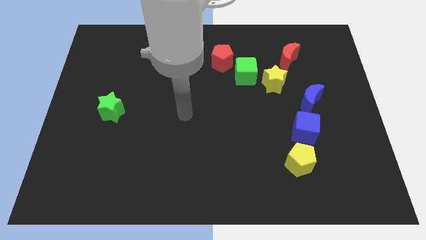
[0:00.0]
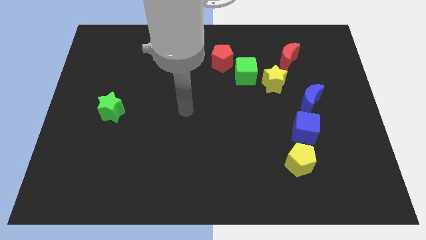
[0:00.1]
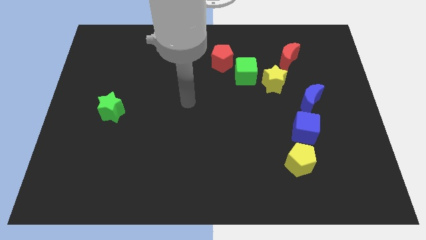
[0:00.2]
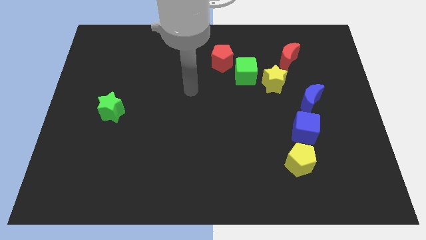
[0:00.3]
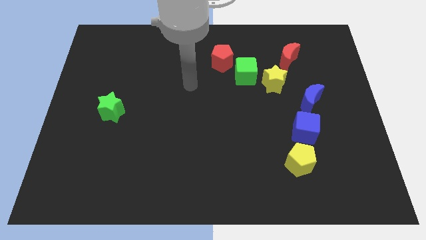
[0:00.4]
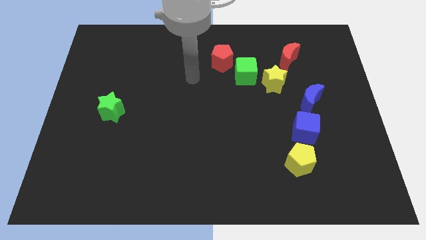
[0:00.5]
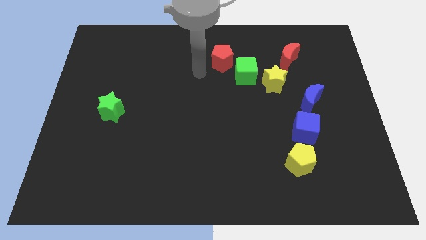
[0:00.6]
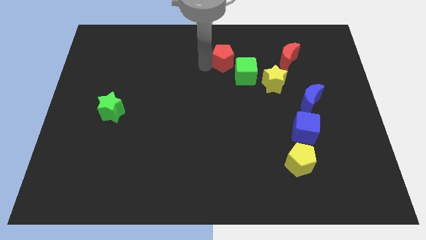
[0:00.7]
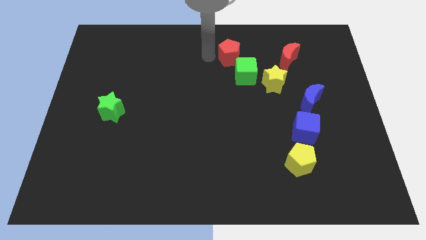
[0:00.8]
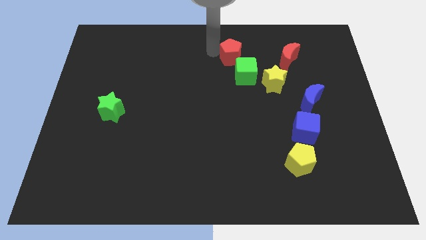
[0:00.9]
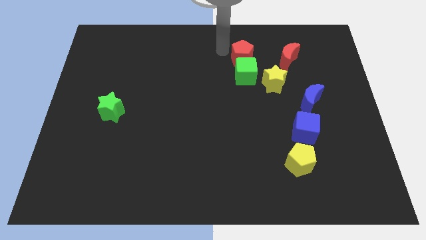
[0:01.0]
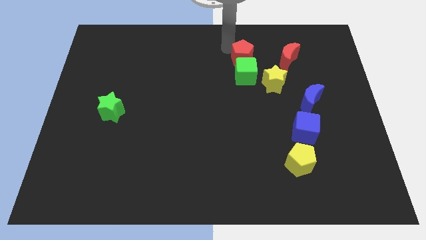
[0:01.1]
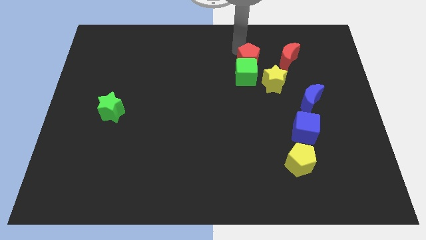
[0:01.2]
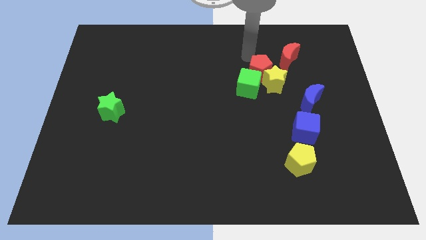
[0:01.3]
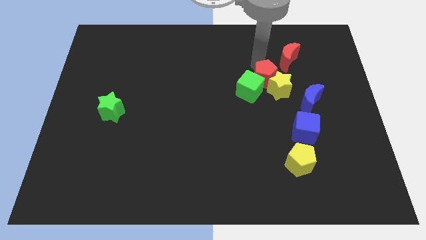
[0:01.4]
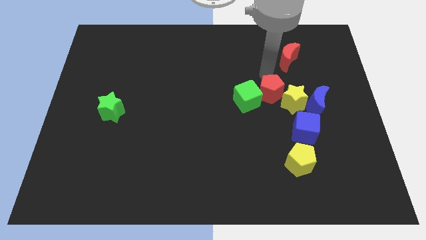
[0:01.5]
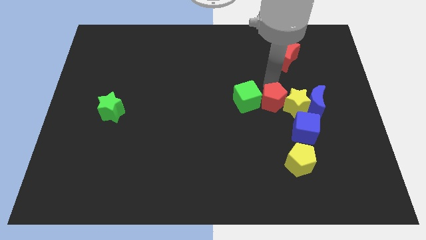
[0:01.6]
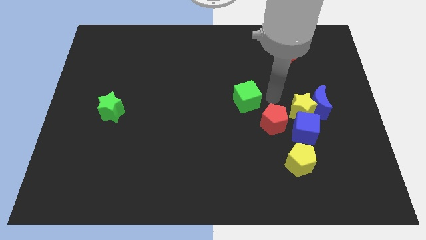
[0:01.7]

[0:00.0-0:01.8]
move the green cube away from the yellow star and red pentagon

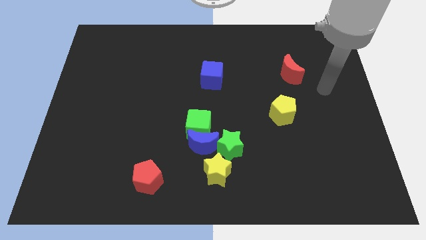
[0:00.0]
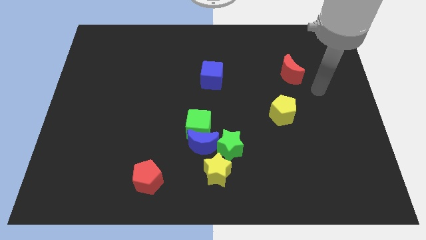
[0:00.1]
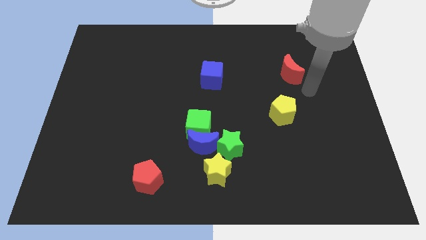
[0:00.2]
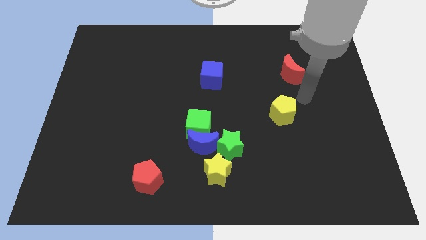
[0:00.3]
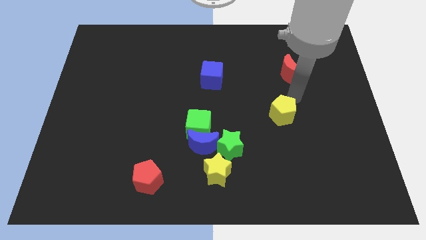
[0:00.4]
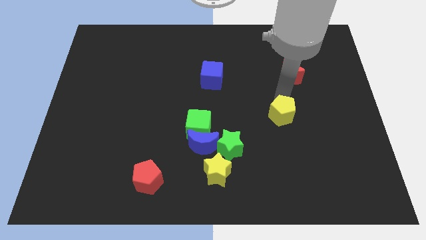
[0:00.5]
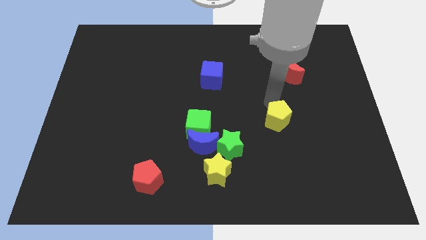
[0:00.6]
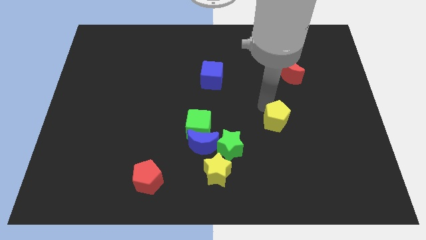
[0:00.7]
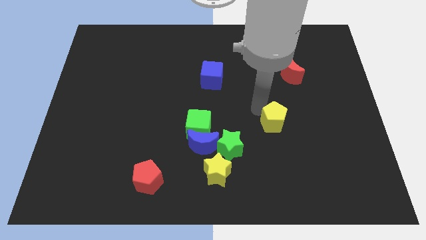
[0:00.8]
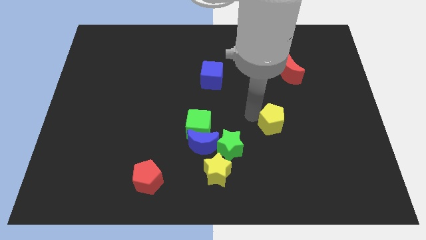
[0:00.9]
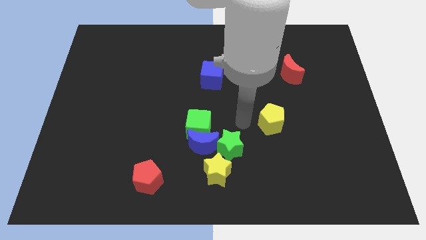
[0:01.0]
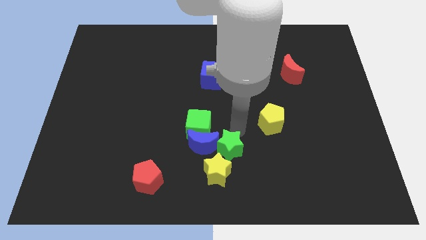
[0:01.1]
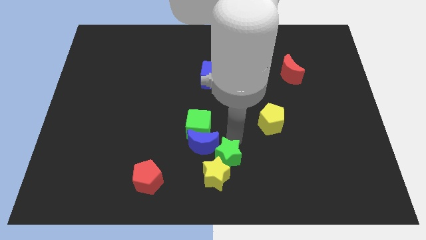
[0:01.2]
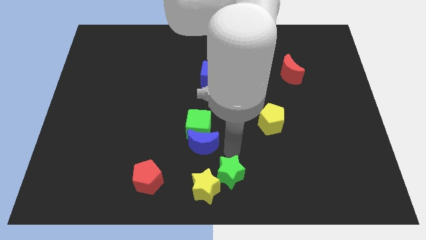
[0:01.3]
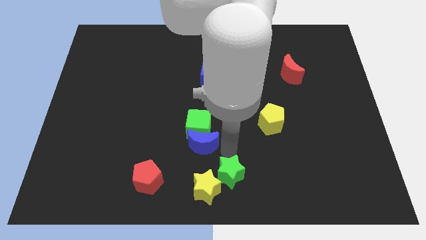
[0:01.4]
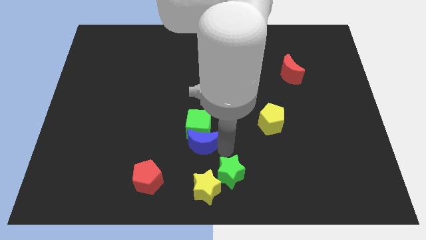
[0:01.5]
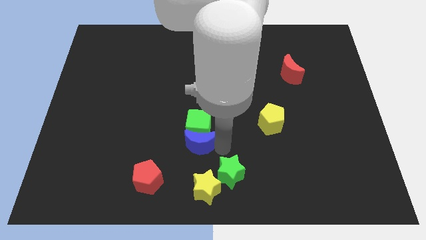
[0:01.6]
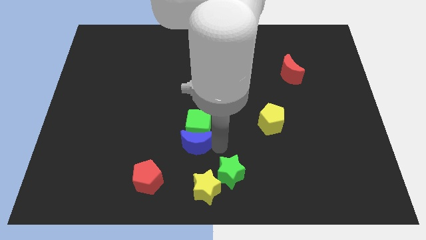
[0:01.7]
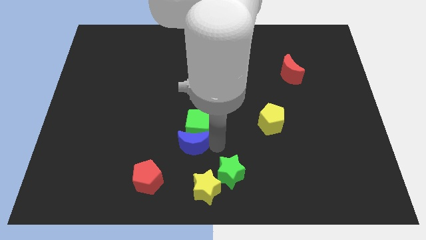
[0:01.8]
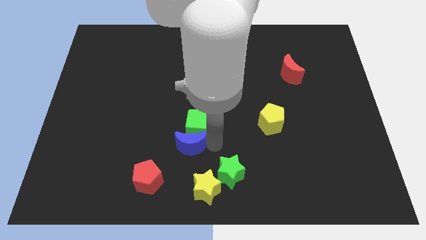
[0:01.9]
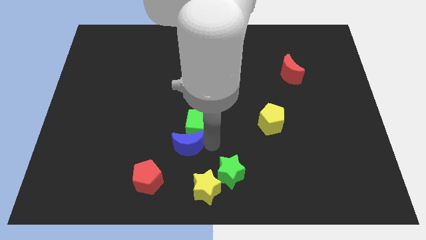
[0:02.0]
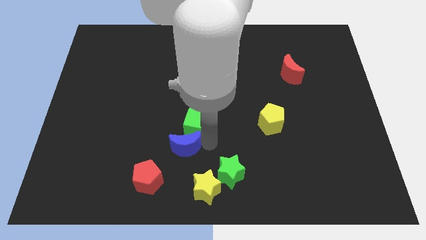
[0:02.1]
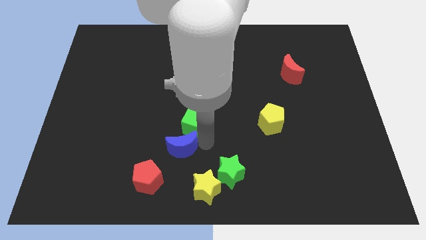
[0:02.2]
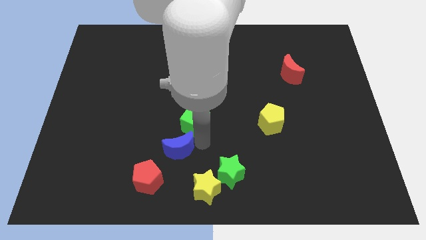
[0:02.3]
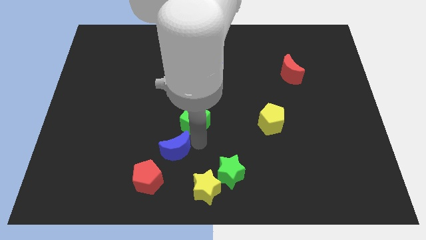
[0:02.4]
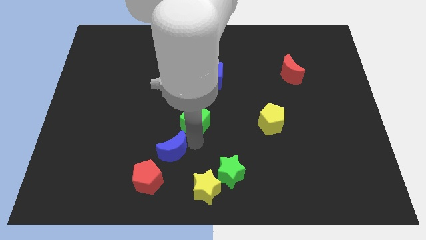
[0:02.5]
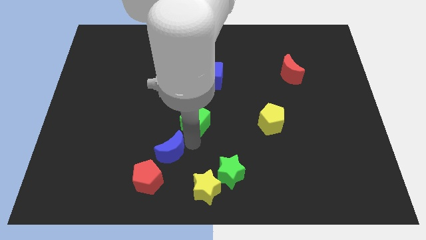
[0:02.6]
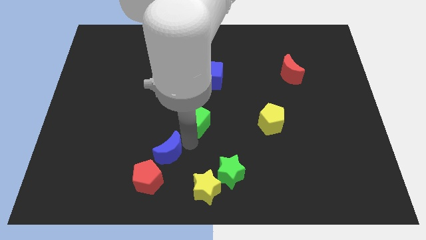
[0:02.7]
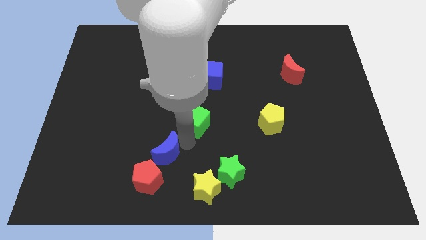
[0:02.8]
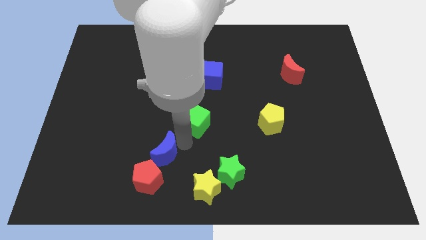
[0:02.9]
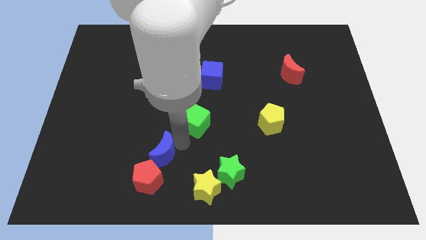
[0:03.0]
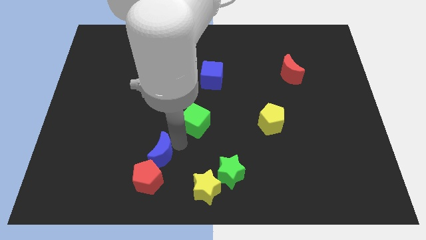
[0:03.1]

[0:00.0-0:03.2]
move the blue moon away from the green cube, green star, and yellow star

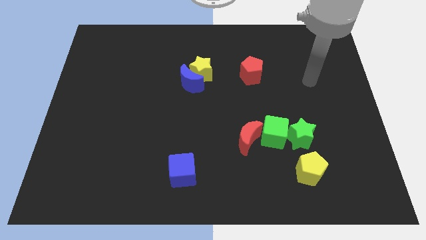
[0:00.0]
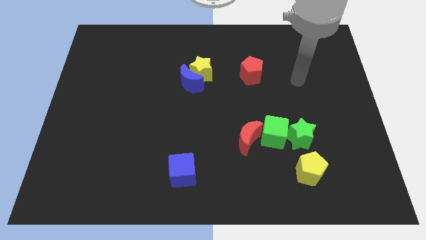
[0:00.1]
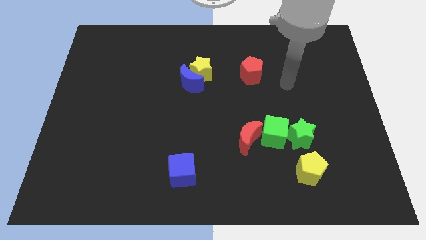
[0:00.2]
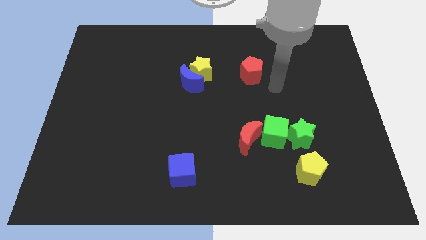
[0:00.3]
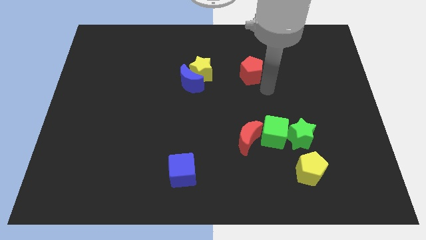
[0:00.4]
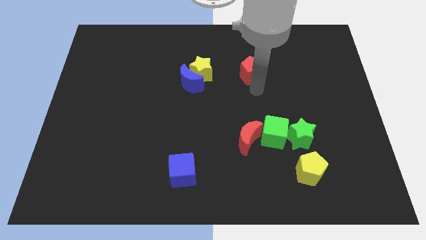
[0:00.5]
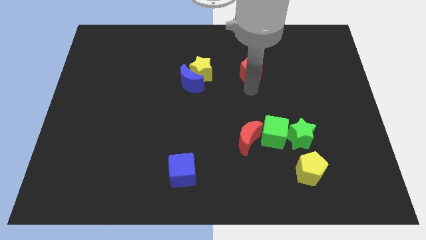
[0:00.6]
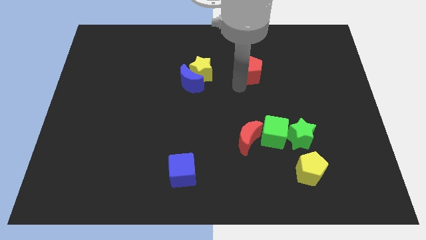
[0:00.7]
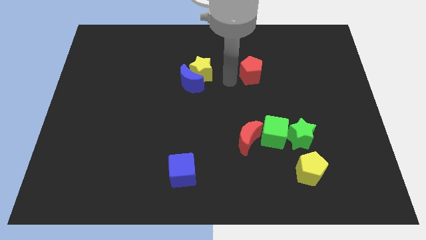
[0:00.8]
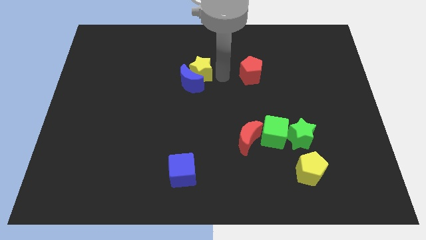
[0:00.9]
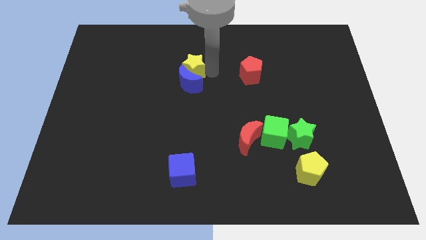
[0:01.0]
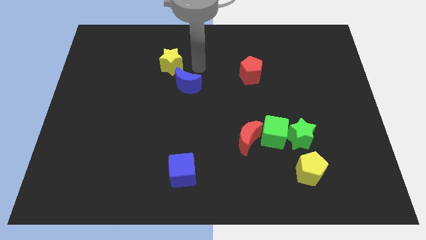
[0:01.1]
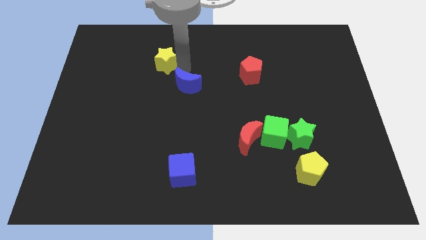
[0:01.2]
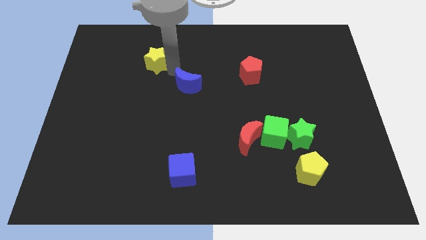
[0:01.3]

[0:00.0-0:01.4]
separate the blue moon from the yellow star

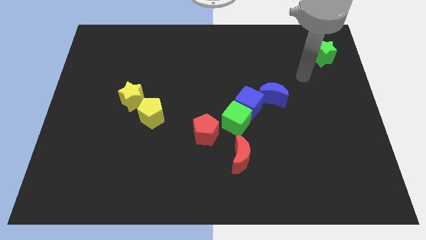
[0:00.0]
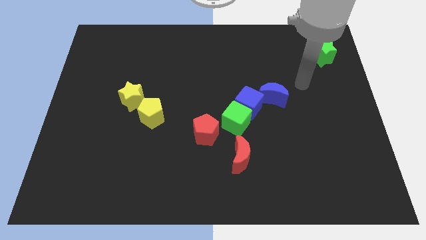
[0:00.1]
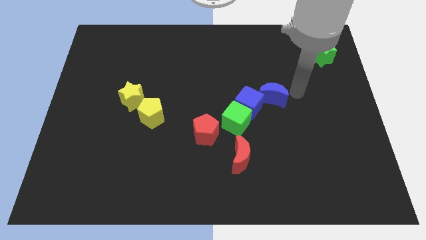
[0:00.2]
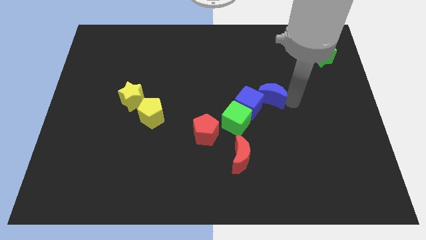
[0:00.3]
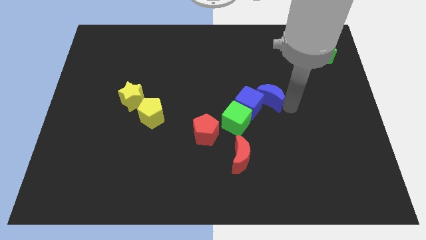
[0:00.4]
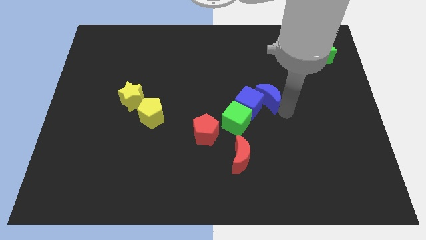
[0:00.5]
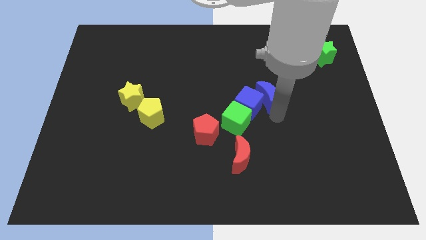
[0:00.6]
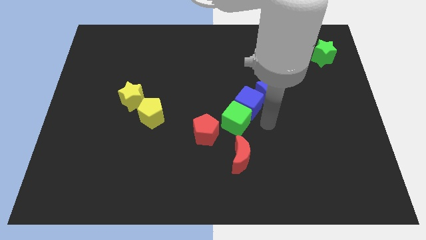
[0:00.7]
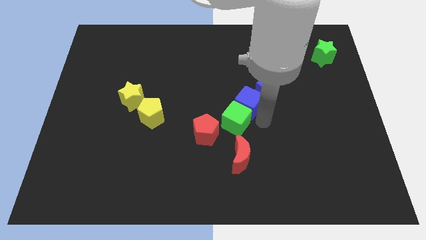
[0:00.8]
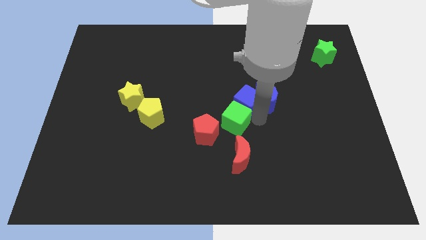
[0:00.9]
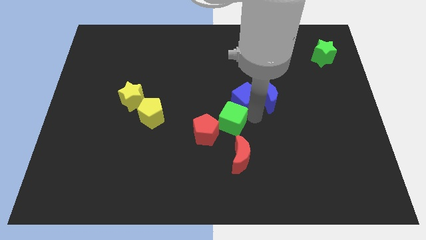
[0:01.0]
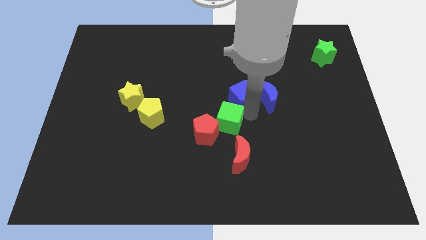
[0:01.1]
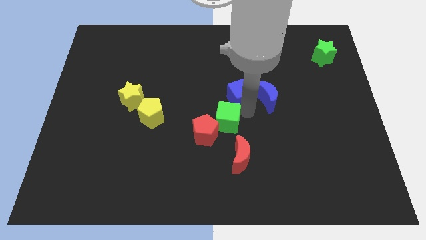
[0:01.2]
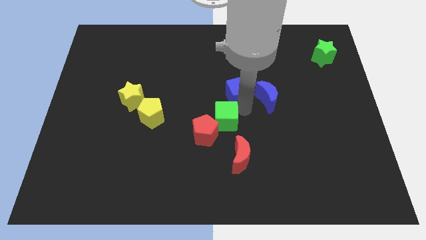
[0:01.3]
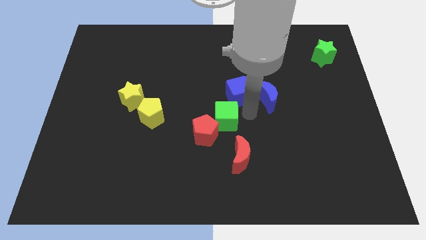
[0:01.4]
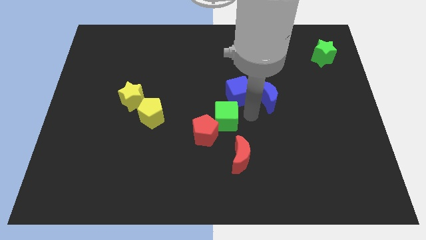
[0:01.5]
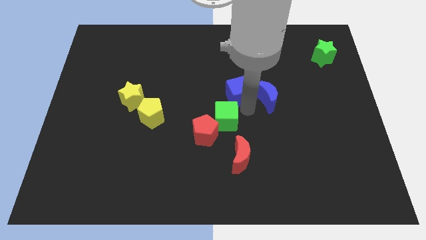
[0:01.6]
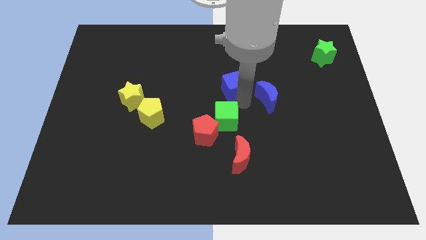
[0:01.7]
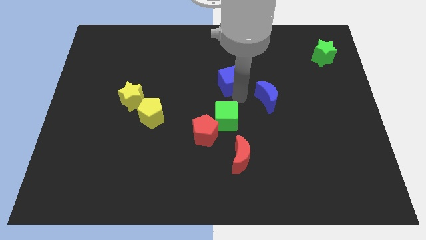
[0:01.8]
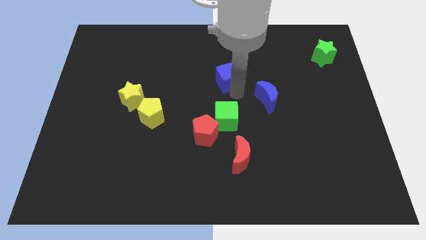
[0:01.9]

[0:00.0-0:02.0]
pull the blue cube apart from the green cube and blue moon

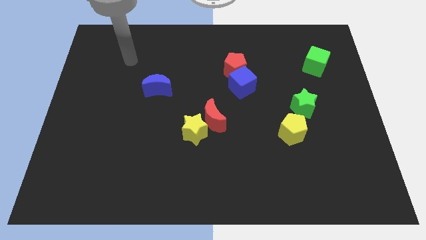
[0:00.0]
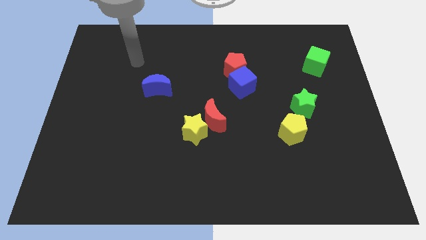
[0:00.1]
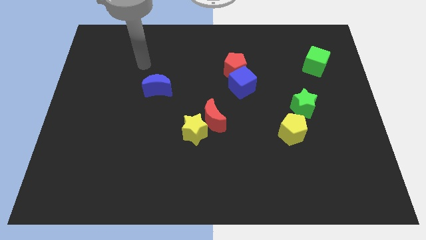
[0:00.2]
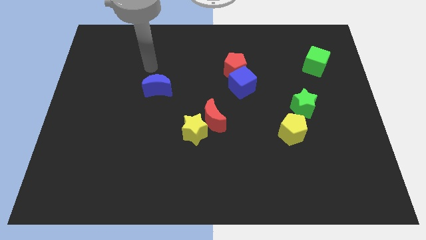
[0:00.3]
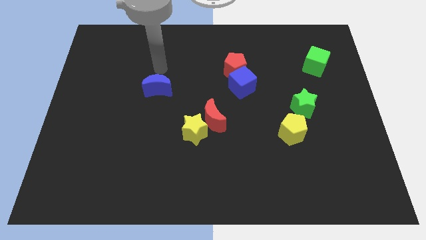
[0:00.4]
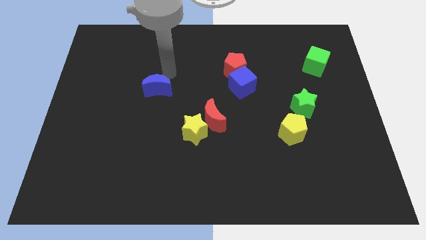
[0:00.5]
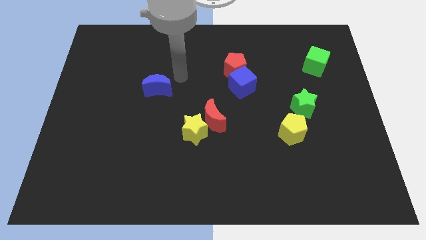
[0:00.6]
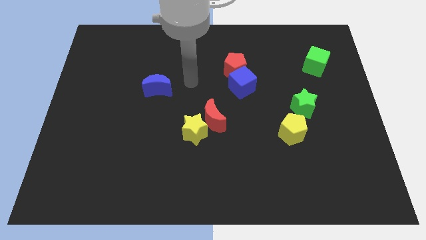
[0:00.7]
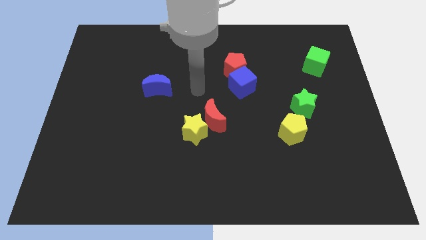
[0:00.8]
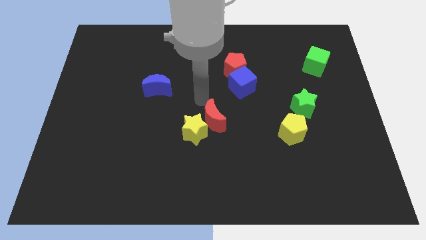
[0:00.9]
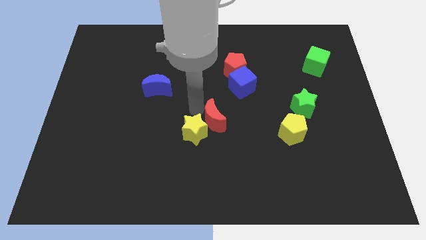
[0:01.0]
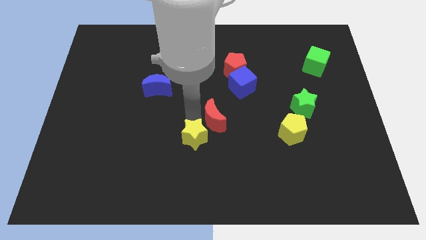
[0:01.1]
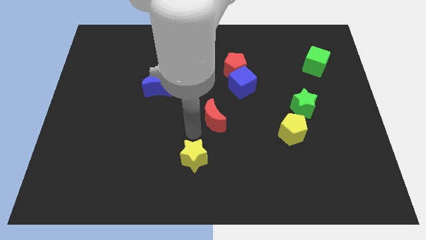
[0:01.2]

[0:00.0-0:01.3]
separate the red moon from the yellow star
